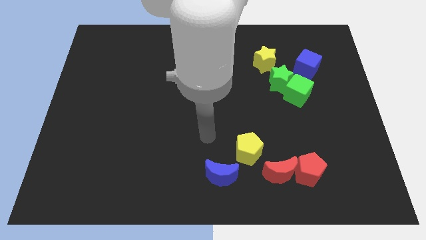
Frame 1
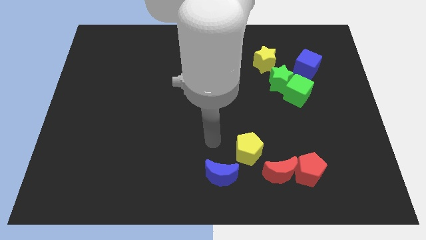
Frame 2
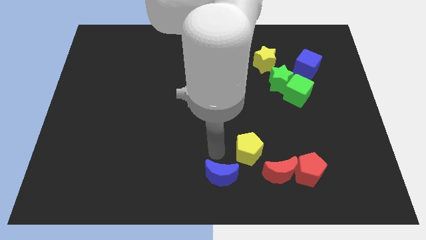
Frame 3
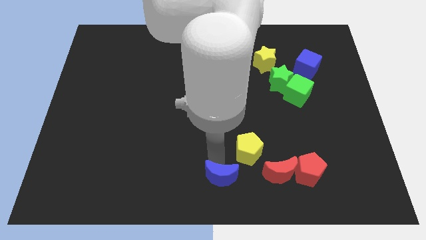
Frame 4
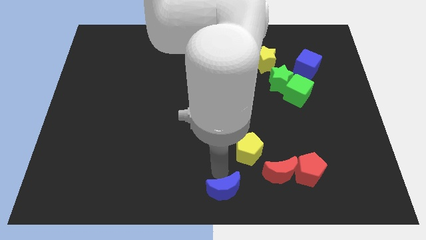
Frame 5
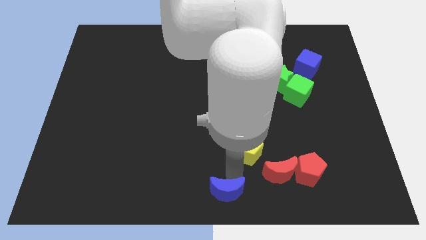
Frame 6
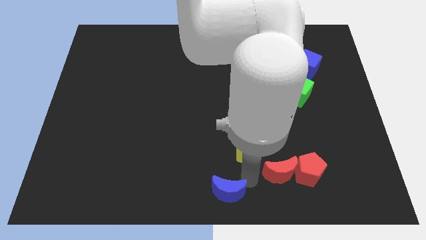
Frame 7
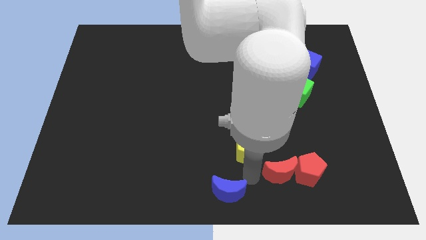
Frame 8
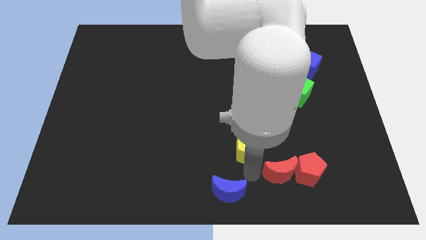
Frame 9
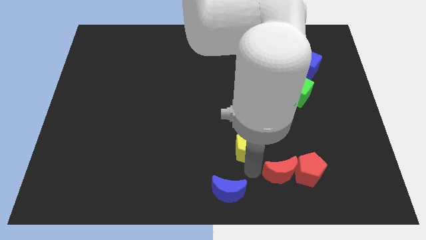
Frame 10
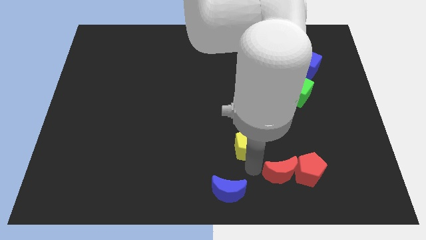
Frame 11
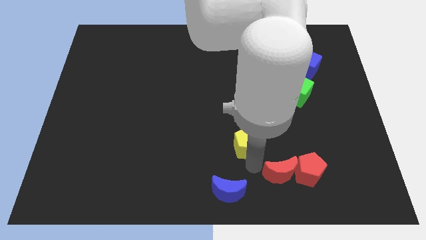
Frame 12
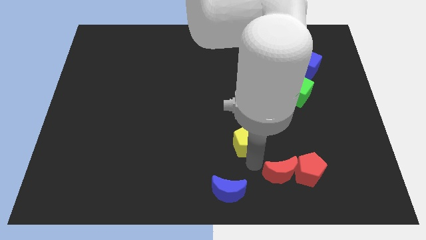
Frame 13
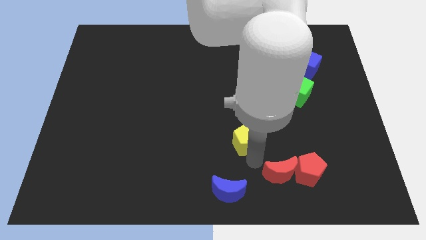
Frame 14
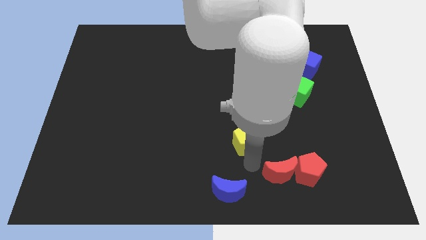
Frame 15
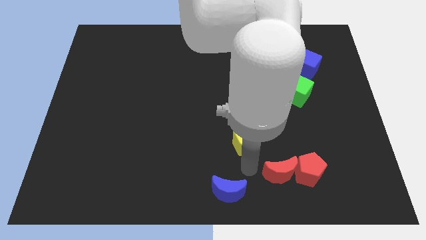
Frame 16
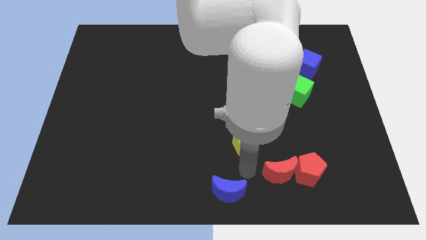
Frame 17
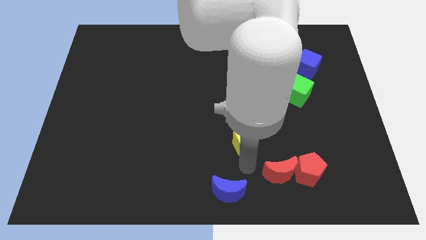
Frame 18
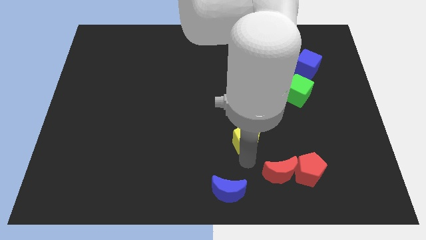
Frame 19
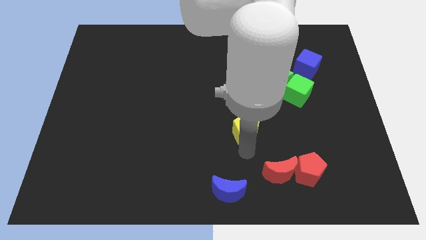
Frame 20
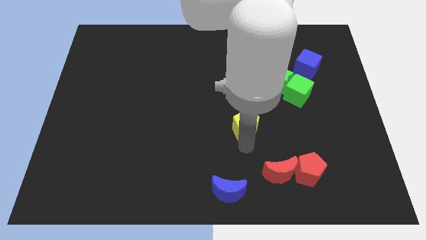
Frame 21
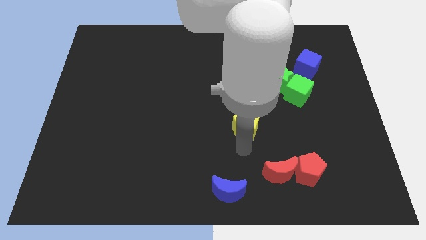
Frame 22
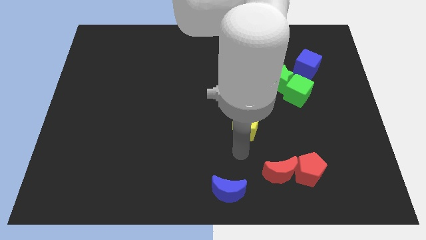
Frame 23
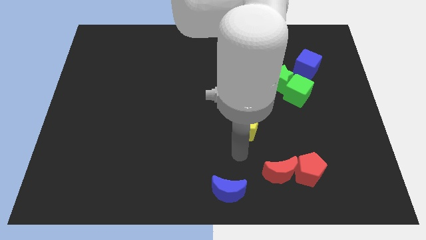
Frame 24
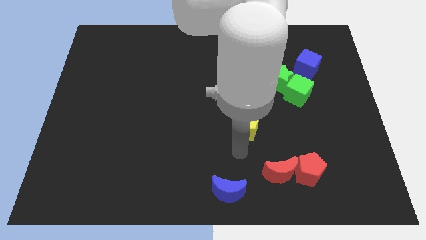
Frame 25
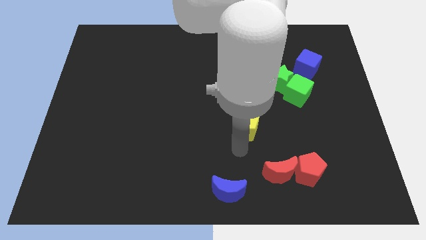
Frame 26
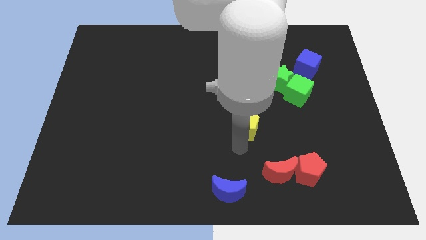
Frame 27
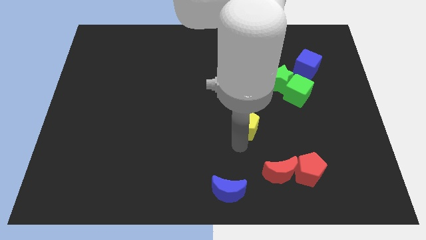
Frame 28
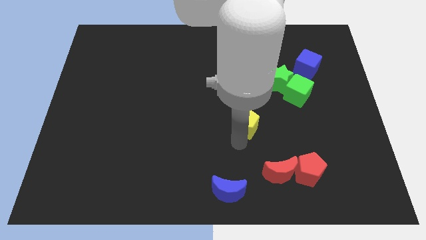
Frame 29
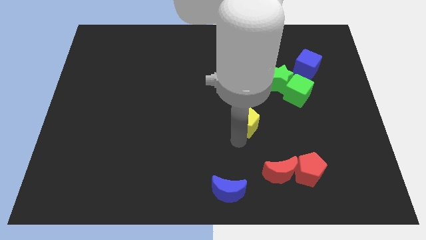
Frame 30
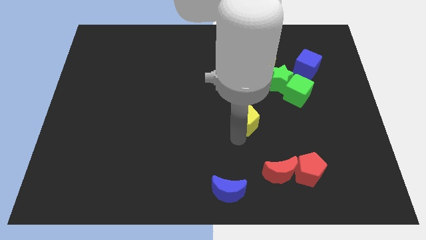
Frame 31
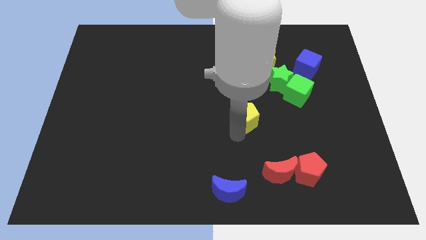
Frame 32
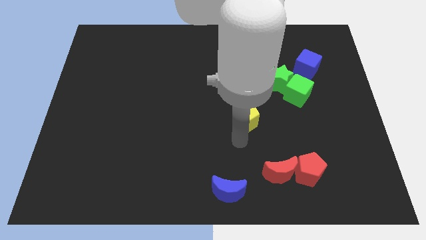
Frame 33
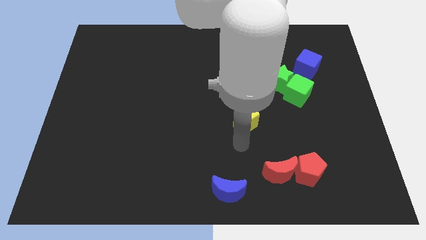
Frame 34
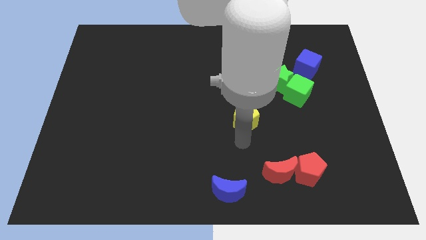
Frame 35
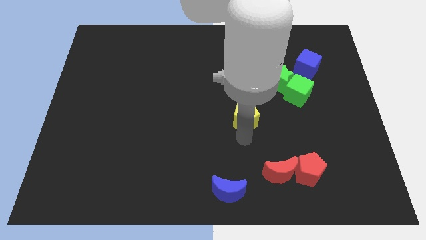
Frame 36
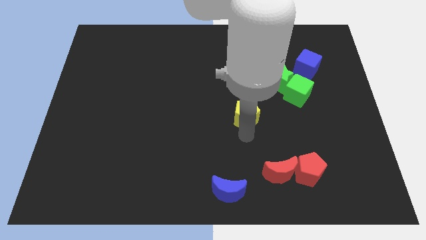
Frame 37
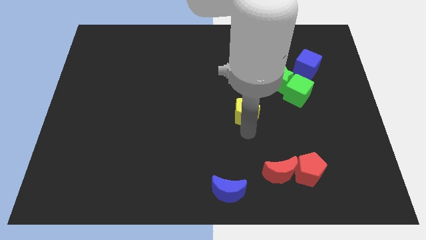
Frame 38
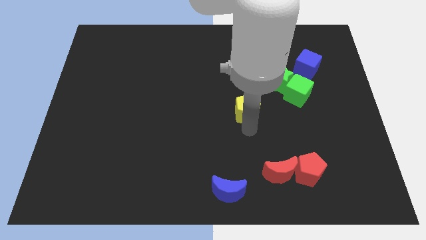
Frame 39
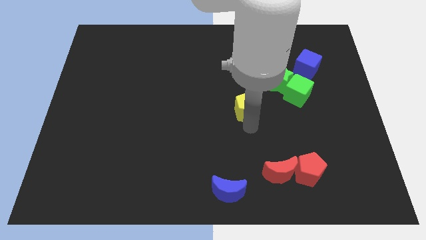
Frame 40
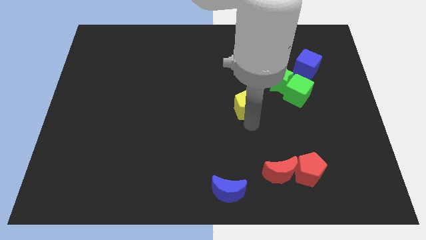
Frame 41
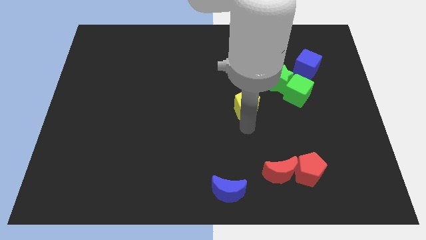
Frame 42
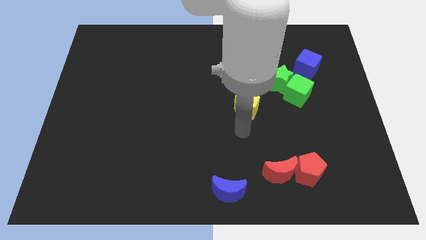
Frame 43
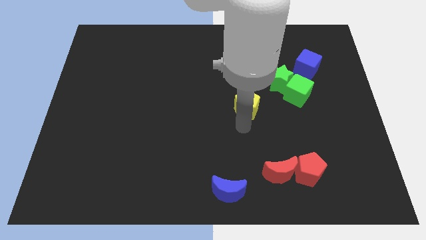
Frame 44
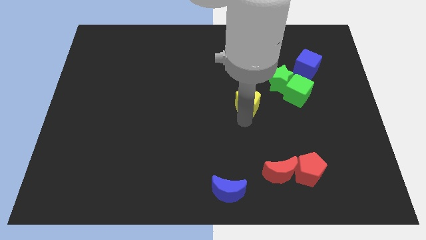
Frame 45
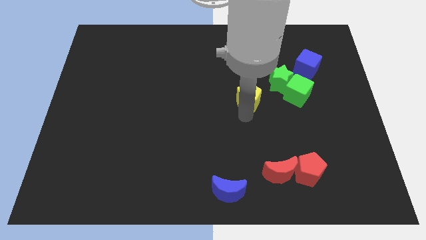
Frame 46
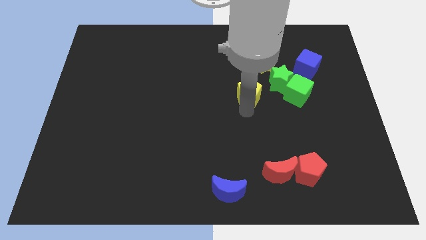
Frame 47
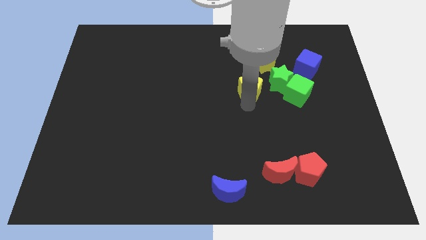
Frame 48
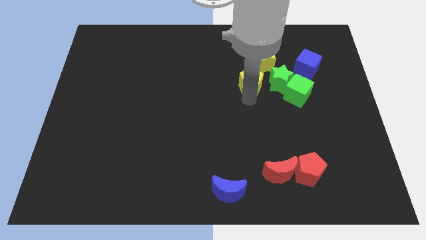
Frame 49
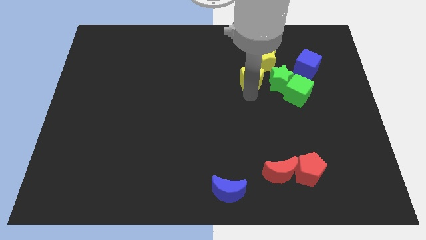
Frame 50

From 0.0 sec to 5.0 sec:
put the yellow pentagon to the top left of the green star

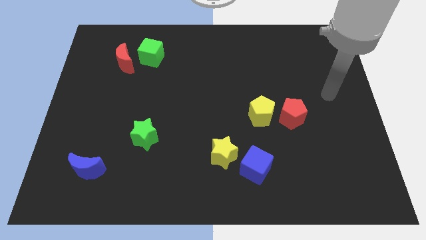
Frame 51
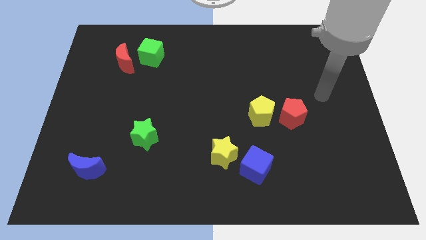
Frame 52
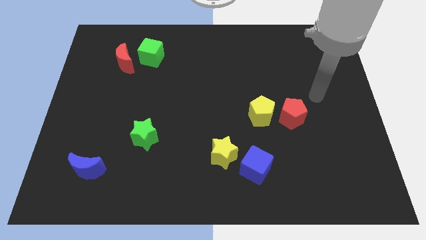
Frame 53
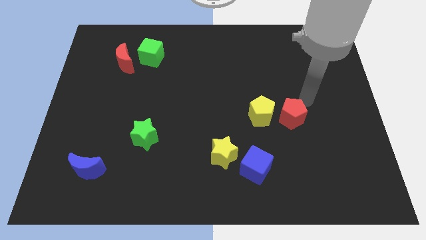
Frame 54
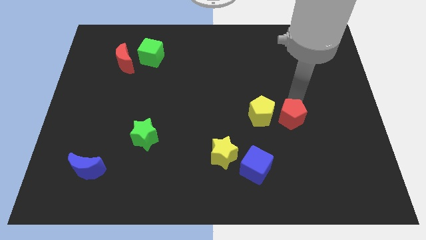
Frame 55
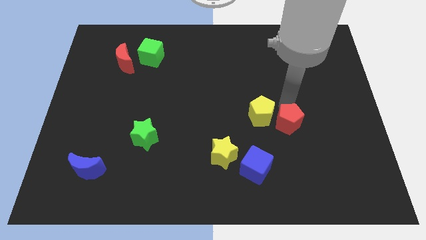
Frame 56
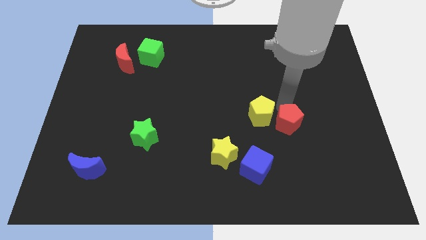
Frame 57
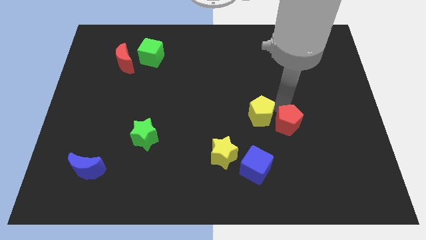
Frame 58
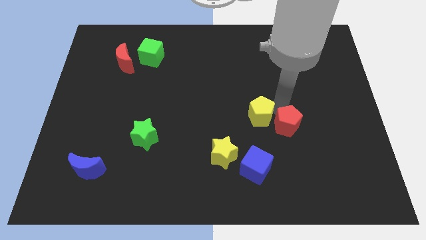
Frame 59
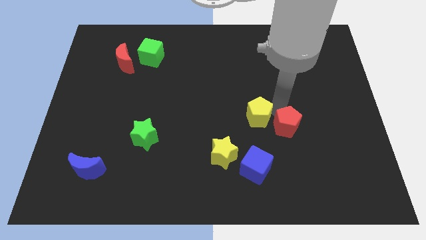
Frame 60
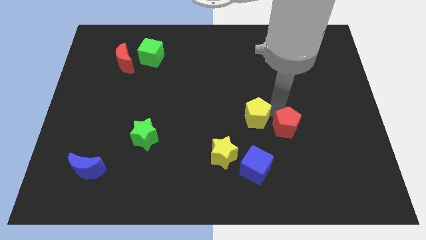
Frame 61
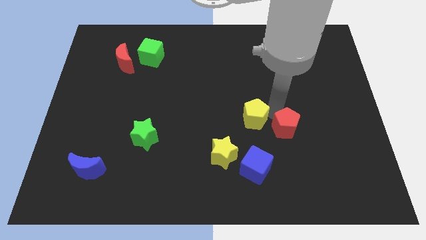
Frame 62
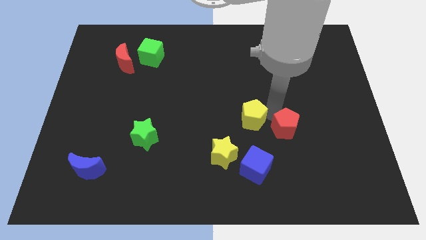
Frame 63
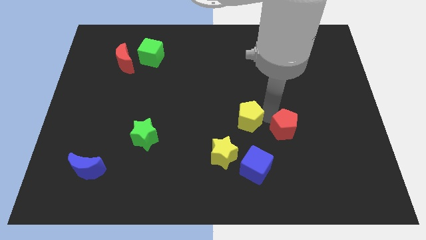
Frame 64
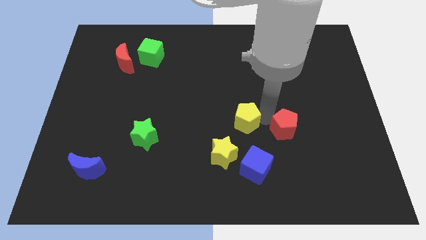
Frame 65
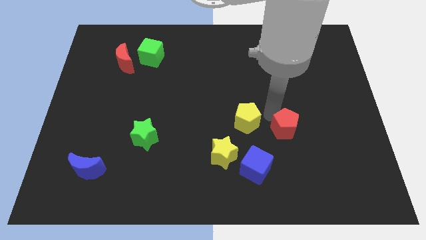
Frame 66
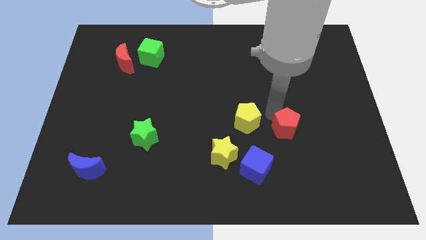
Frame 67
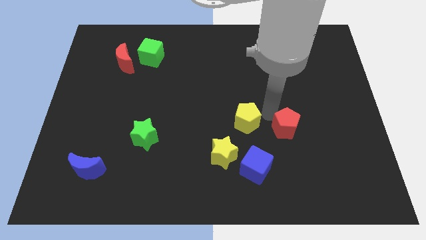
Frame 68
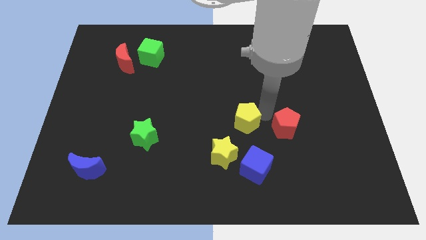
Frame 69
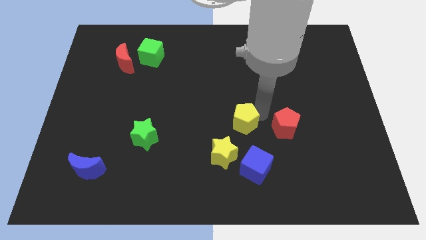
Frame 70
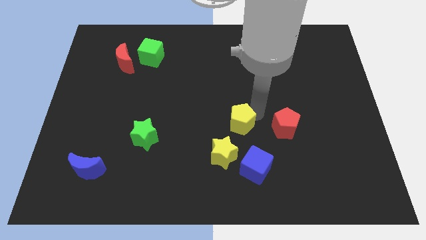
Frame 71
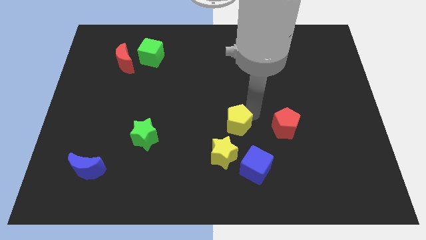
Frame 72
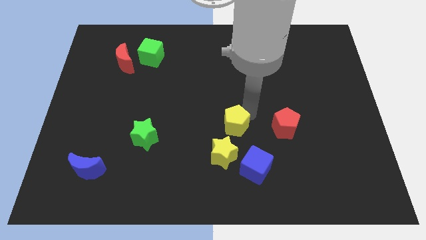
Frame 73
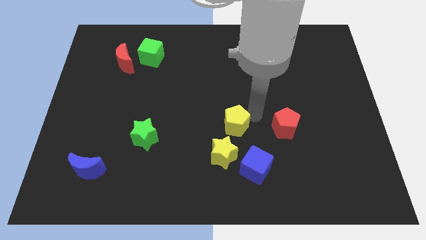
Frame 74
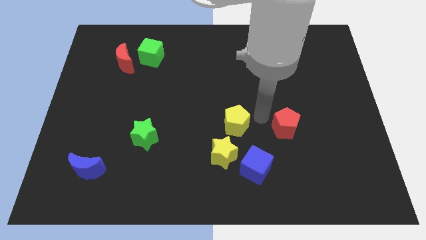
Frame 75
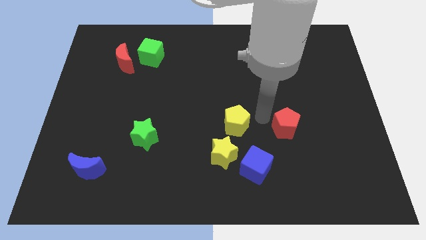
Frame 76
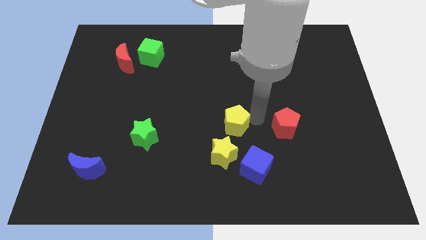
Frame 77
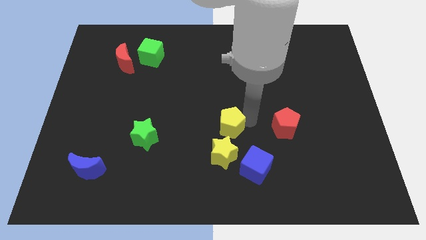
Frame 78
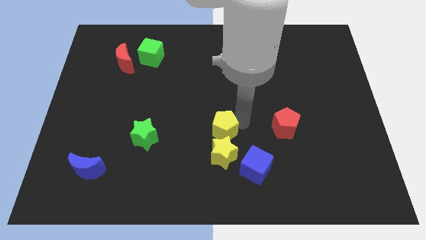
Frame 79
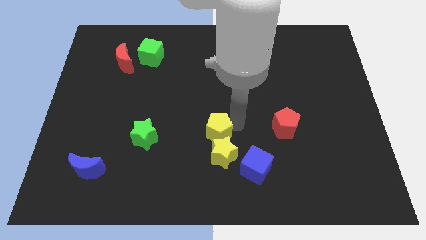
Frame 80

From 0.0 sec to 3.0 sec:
push the yellow pentagon right of the green star

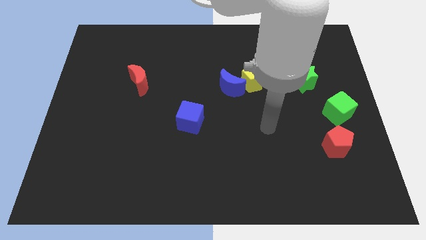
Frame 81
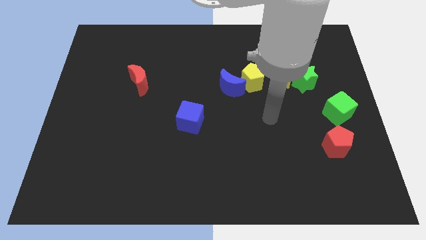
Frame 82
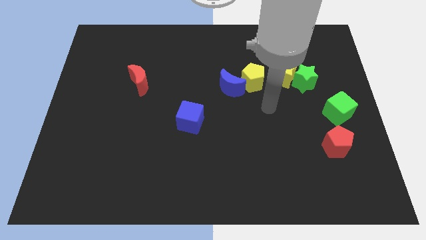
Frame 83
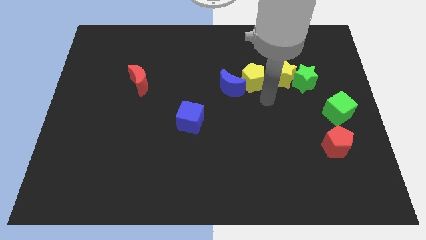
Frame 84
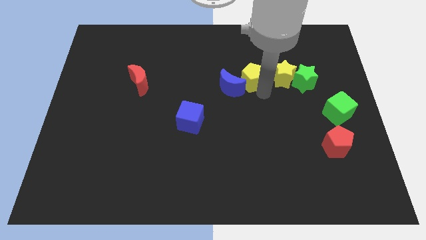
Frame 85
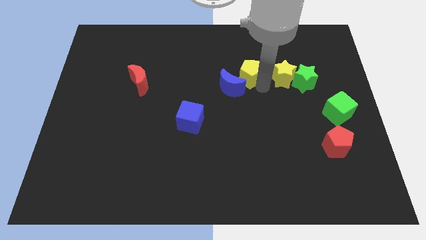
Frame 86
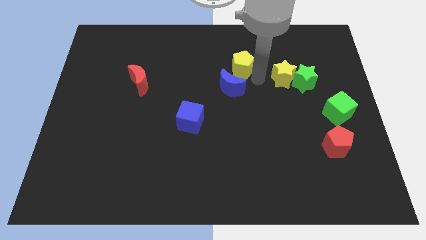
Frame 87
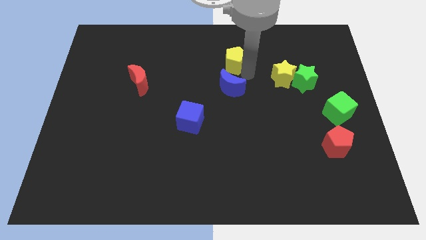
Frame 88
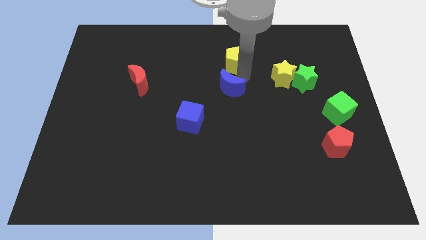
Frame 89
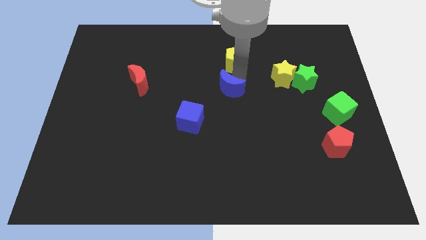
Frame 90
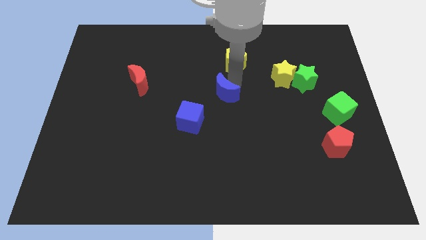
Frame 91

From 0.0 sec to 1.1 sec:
put the blue moon to the top right of the blue cube
